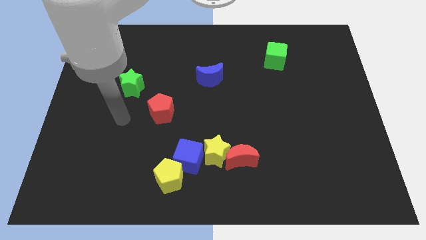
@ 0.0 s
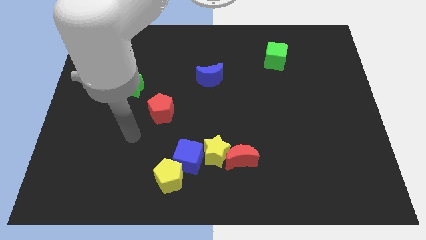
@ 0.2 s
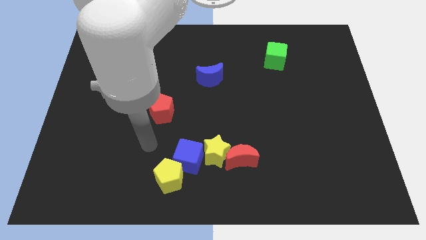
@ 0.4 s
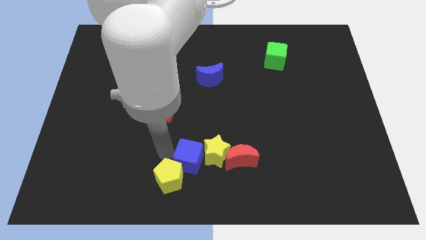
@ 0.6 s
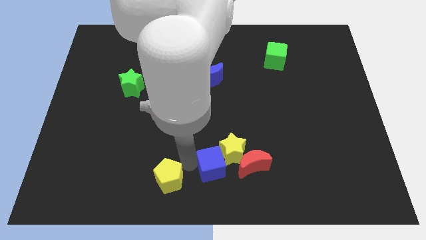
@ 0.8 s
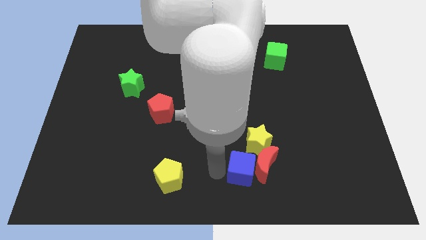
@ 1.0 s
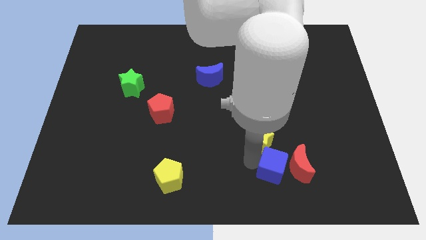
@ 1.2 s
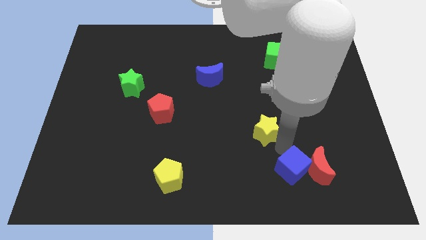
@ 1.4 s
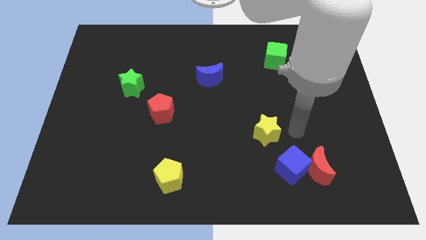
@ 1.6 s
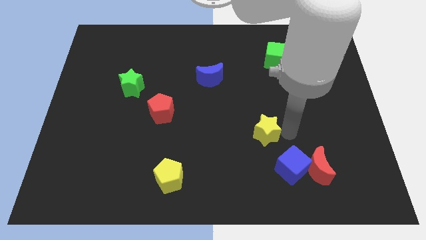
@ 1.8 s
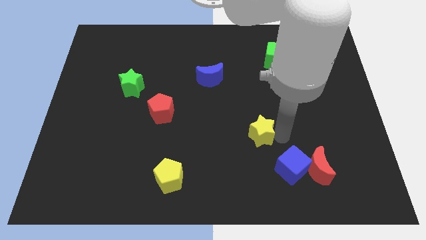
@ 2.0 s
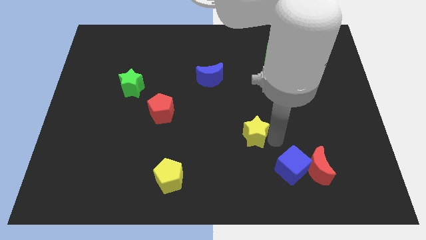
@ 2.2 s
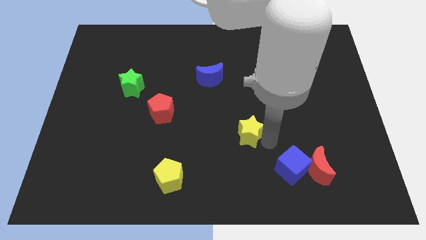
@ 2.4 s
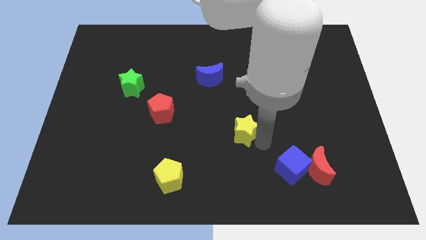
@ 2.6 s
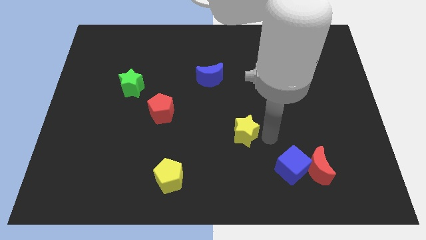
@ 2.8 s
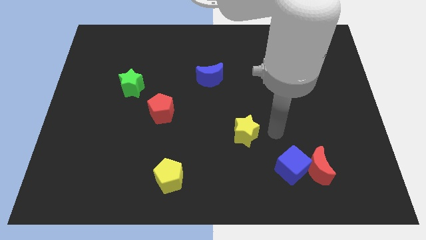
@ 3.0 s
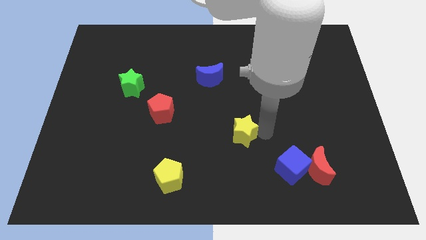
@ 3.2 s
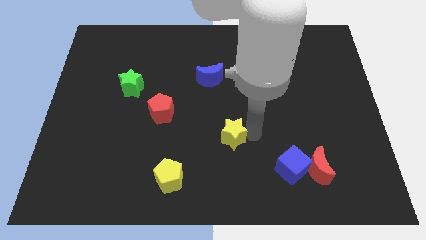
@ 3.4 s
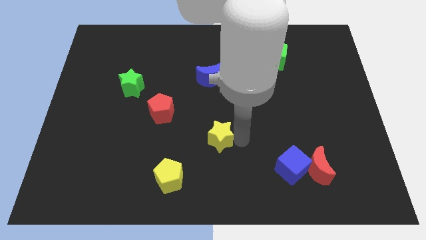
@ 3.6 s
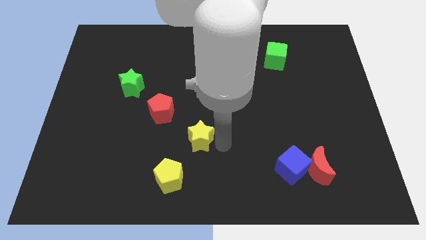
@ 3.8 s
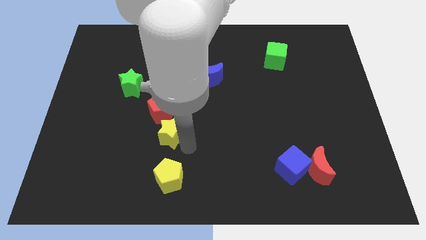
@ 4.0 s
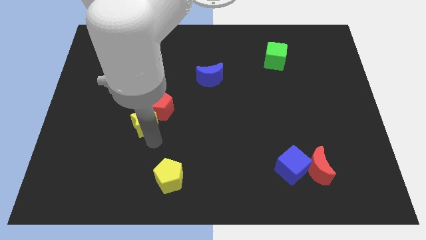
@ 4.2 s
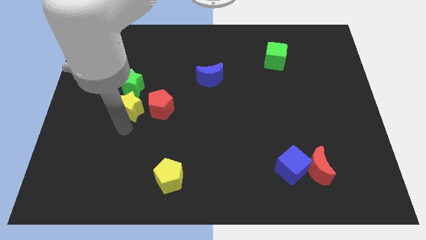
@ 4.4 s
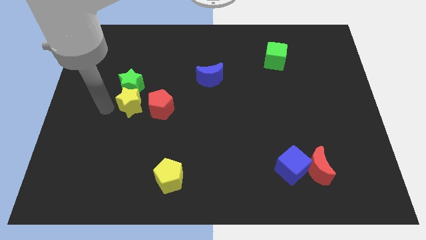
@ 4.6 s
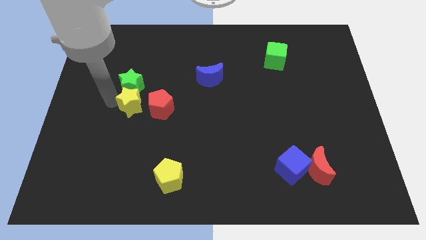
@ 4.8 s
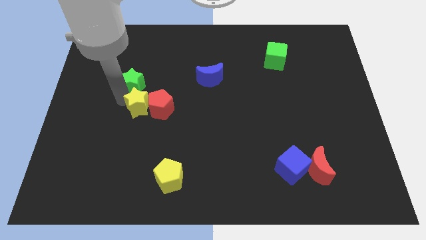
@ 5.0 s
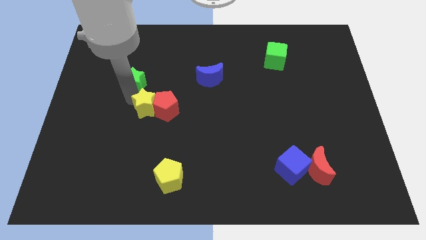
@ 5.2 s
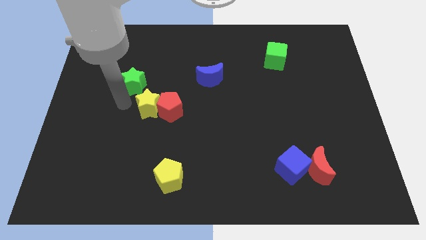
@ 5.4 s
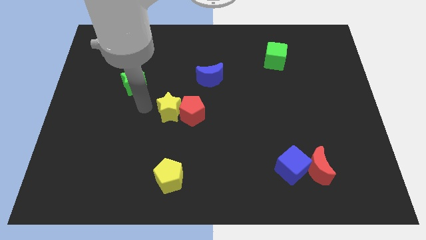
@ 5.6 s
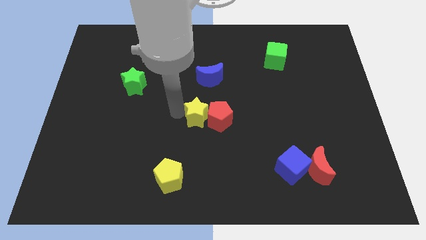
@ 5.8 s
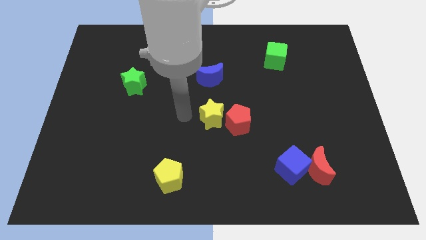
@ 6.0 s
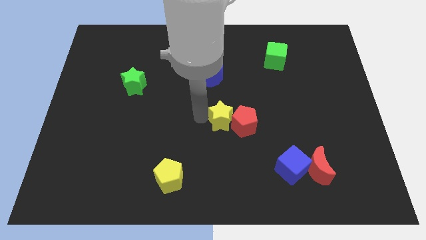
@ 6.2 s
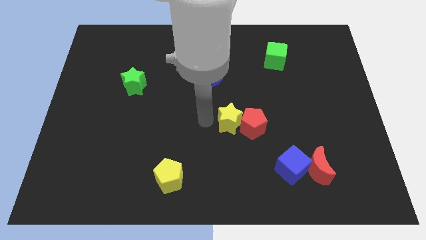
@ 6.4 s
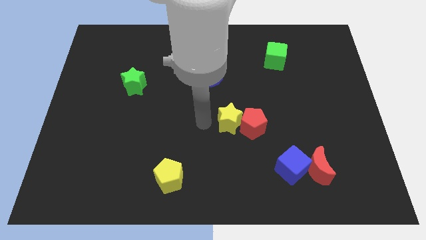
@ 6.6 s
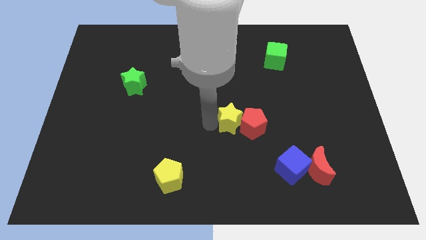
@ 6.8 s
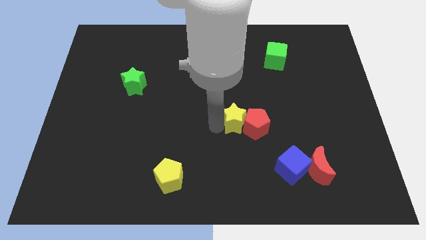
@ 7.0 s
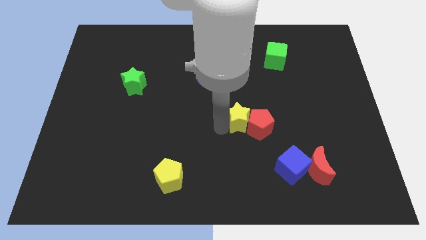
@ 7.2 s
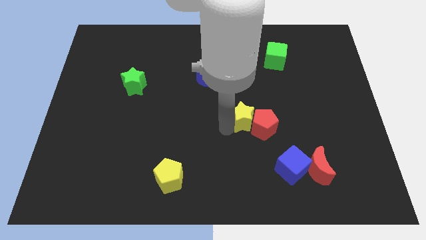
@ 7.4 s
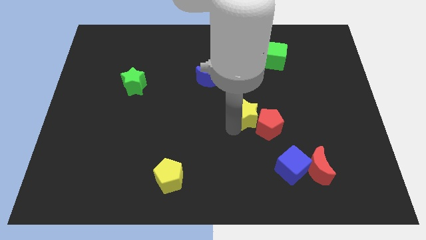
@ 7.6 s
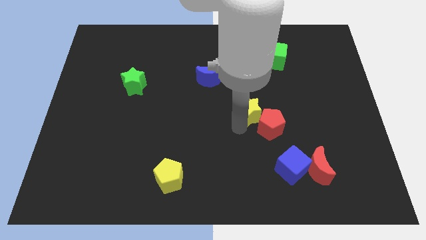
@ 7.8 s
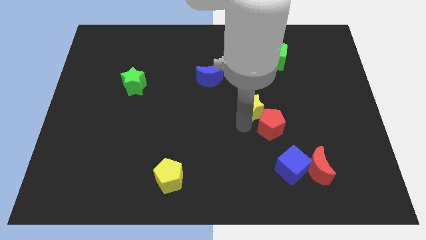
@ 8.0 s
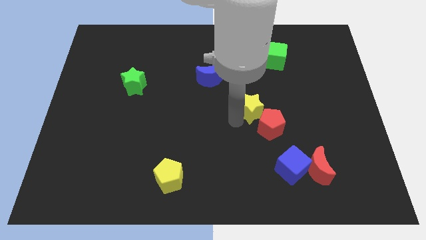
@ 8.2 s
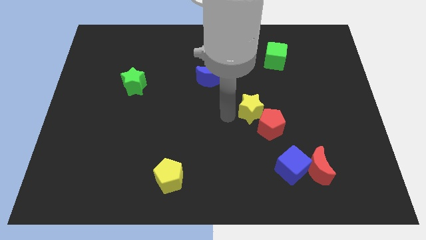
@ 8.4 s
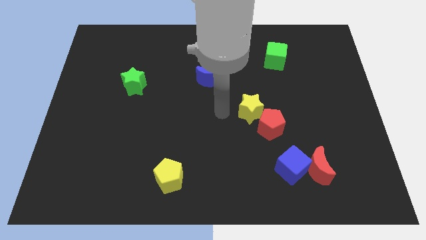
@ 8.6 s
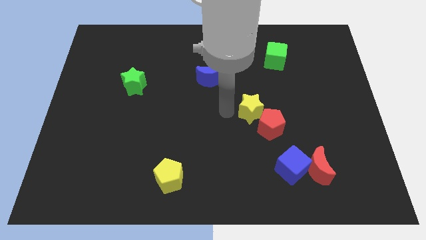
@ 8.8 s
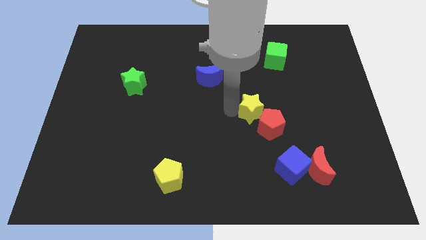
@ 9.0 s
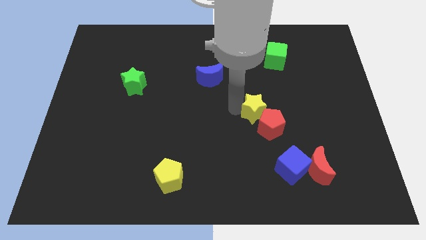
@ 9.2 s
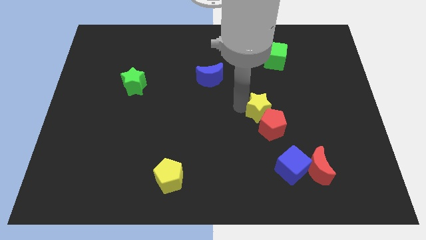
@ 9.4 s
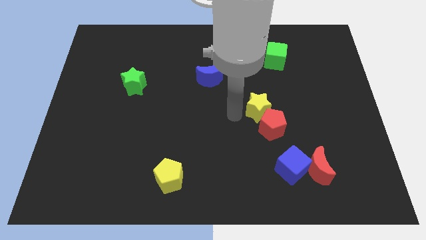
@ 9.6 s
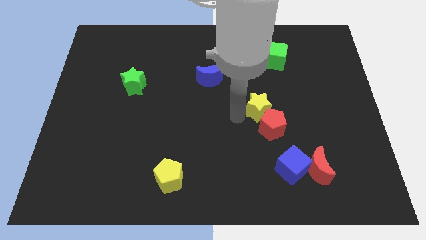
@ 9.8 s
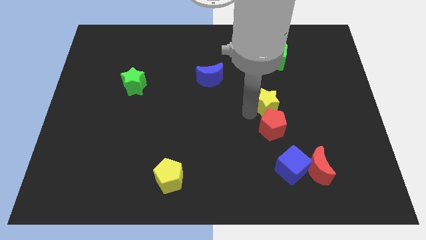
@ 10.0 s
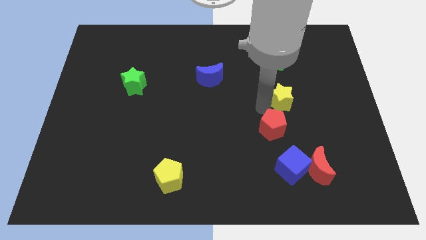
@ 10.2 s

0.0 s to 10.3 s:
push the yellow star diagonally up and right

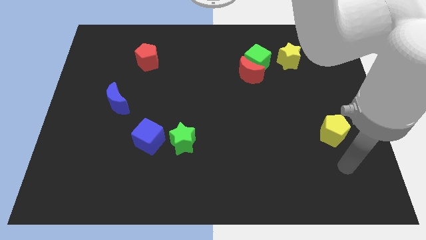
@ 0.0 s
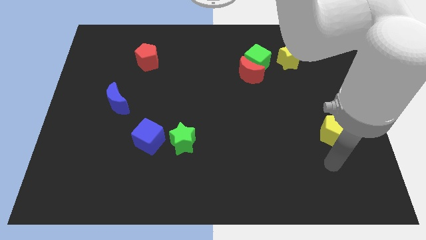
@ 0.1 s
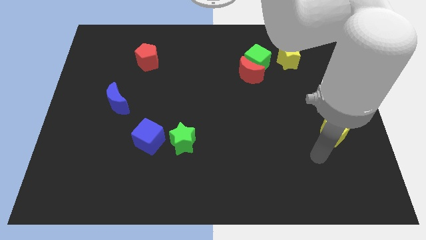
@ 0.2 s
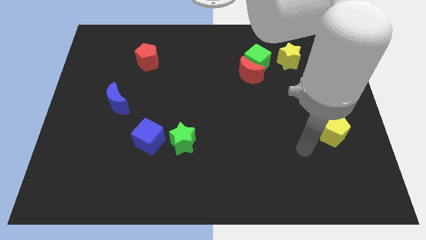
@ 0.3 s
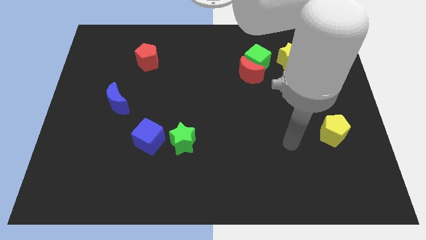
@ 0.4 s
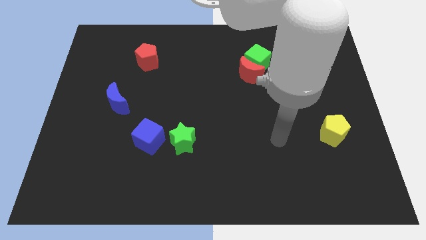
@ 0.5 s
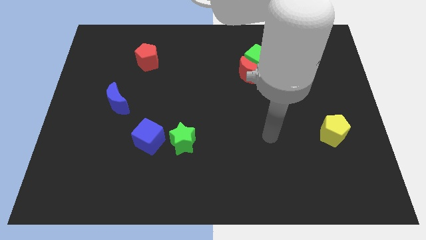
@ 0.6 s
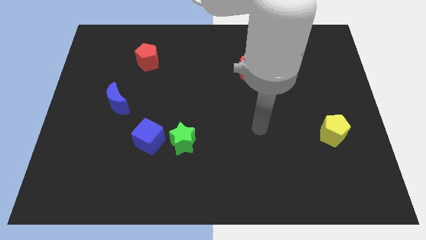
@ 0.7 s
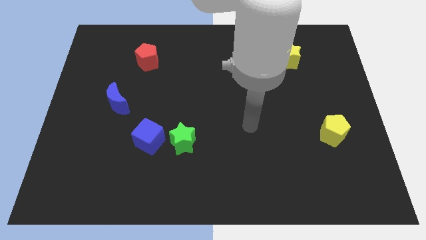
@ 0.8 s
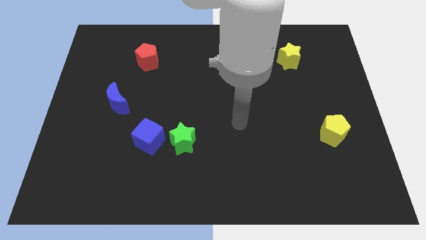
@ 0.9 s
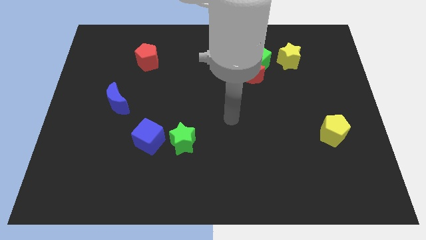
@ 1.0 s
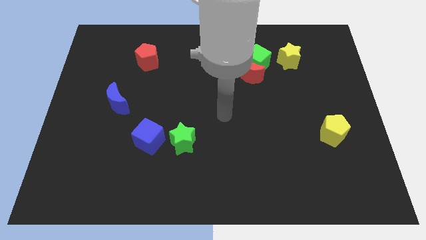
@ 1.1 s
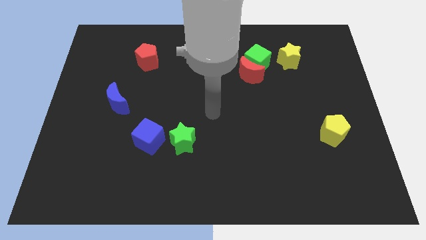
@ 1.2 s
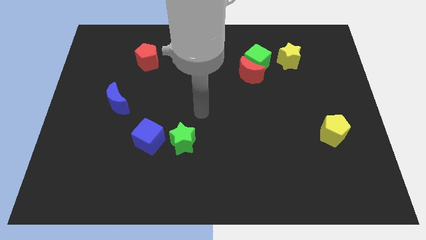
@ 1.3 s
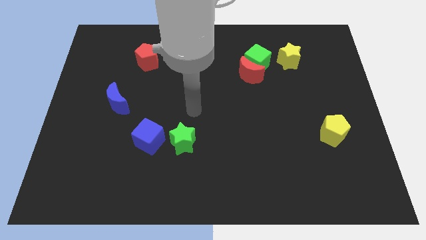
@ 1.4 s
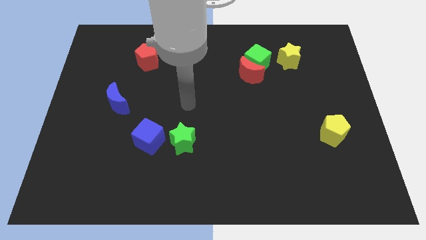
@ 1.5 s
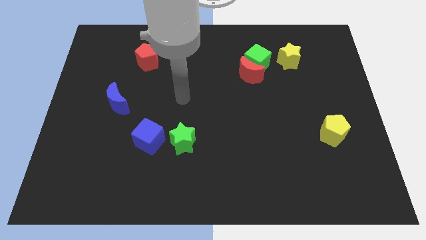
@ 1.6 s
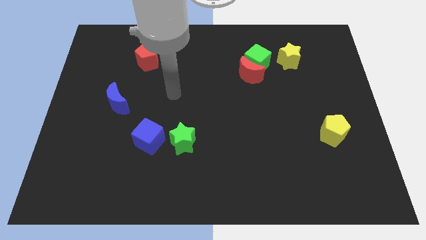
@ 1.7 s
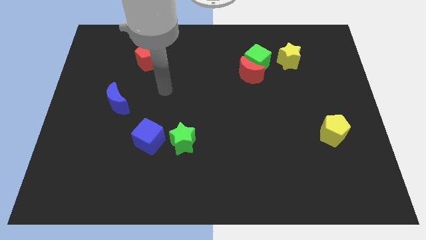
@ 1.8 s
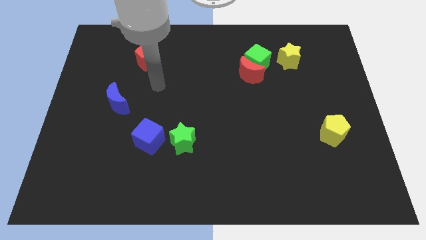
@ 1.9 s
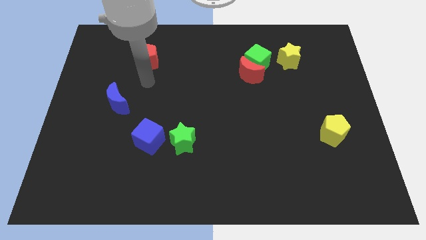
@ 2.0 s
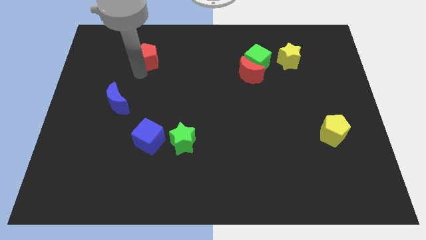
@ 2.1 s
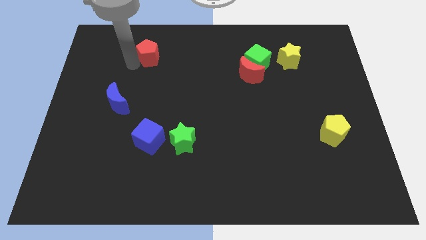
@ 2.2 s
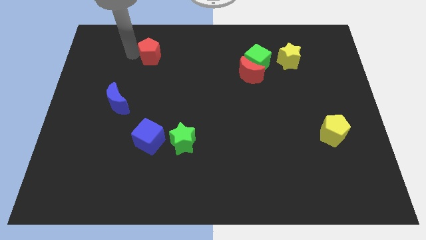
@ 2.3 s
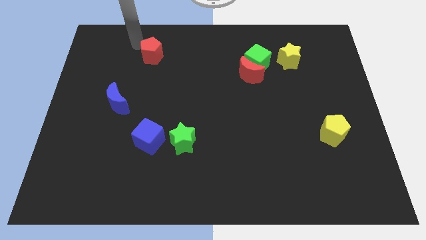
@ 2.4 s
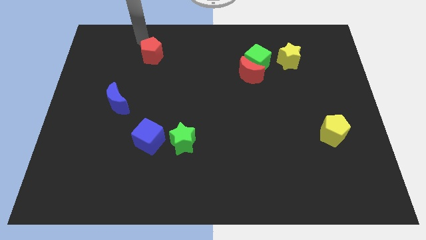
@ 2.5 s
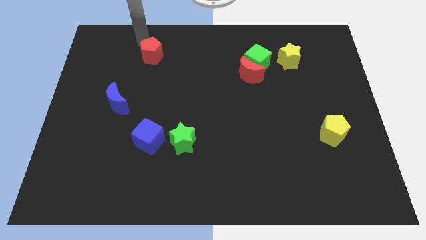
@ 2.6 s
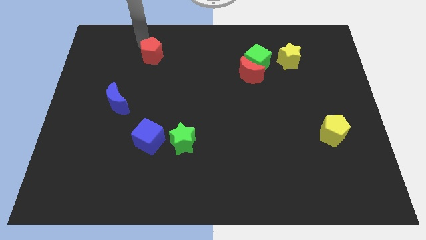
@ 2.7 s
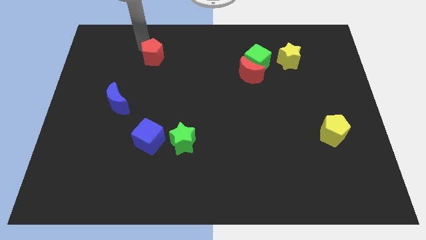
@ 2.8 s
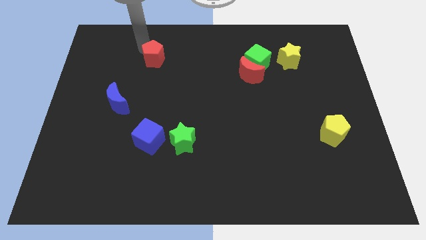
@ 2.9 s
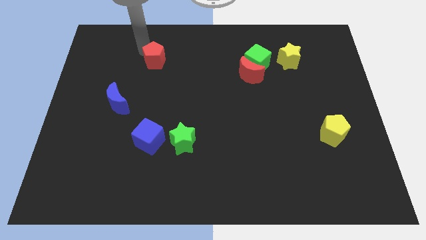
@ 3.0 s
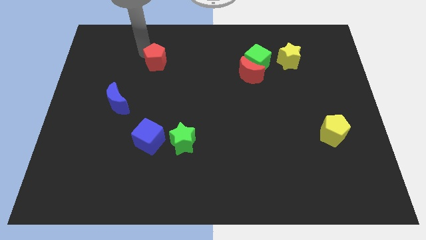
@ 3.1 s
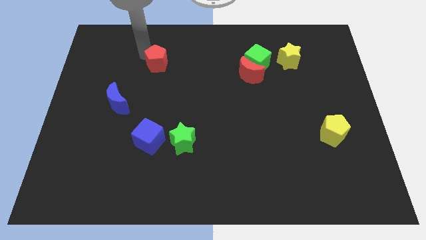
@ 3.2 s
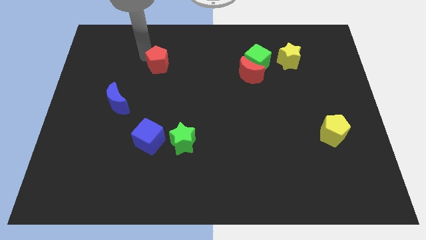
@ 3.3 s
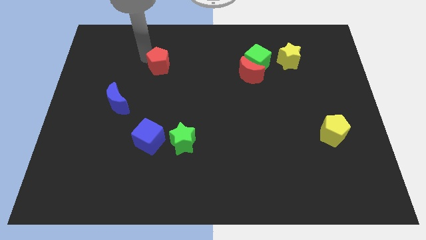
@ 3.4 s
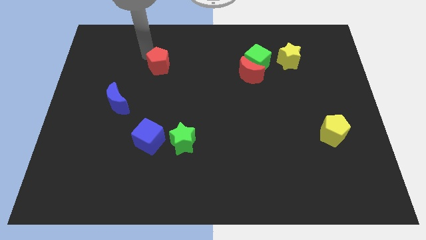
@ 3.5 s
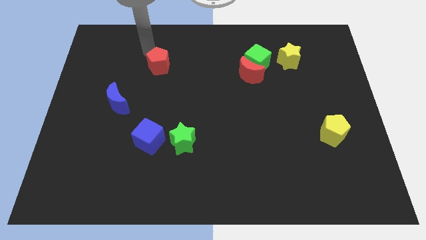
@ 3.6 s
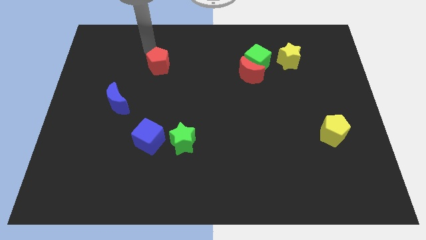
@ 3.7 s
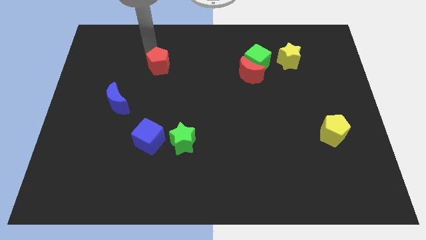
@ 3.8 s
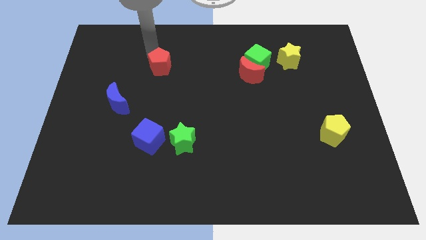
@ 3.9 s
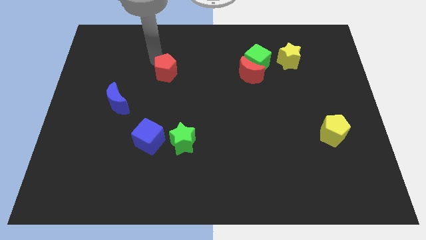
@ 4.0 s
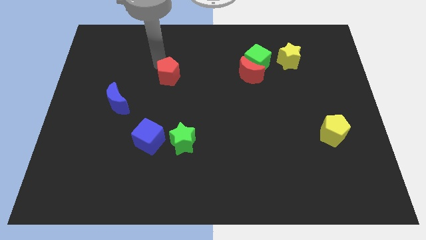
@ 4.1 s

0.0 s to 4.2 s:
slightly move the red pentagon down and right
